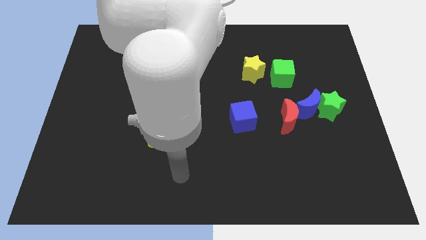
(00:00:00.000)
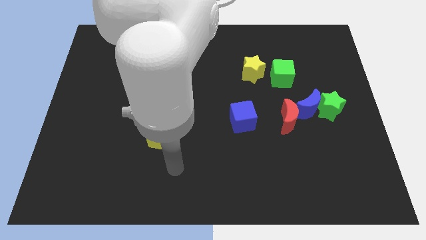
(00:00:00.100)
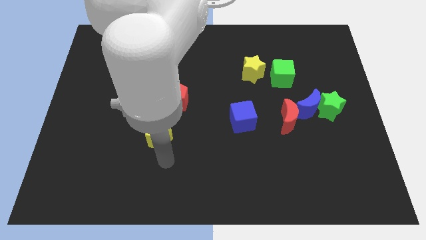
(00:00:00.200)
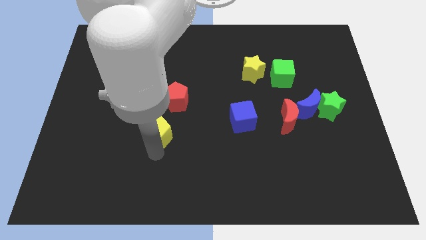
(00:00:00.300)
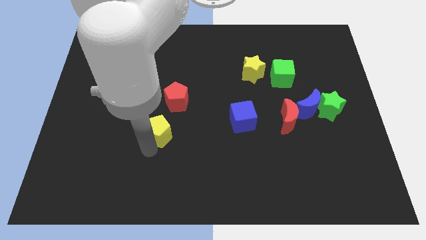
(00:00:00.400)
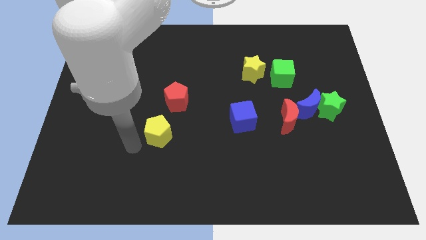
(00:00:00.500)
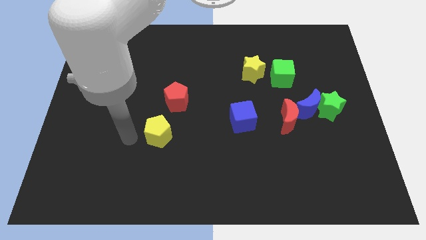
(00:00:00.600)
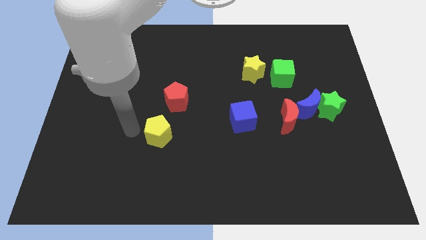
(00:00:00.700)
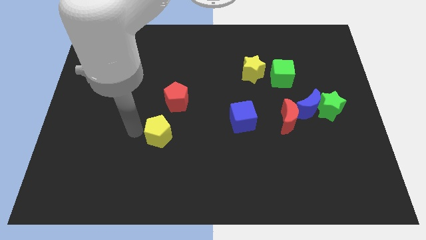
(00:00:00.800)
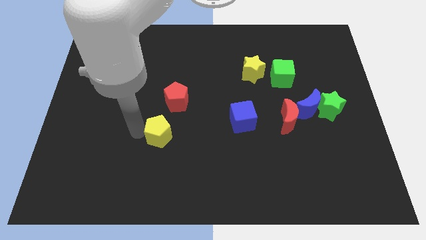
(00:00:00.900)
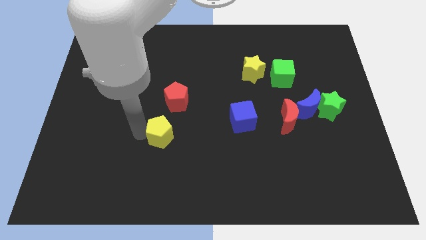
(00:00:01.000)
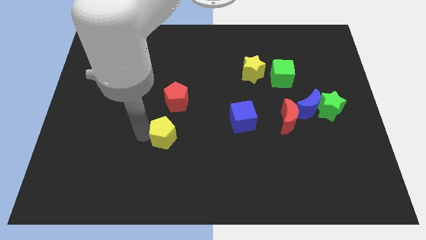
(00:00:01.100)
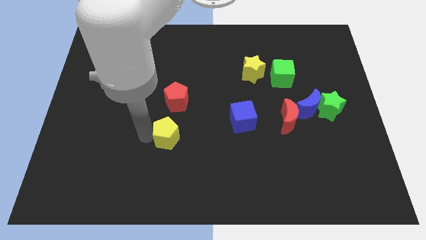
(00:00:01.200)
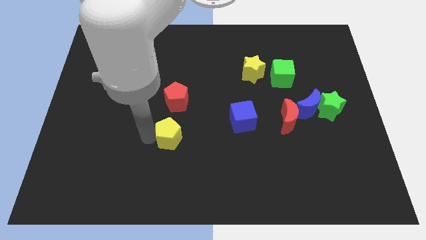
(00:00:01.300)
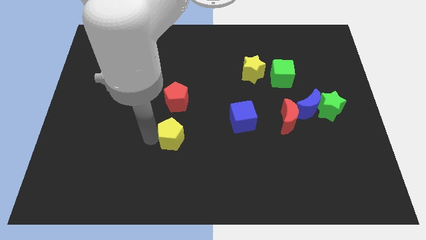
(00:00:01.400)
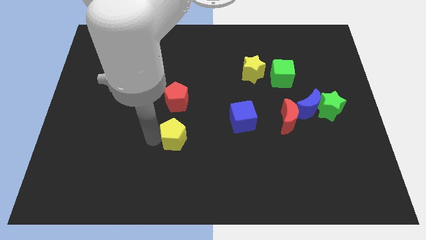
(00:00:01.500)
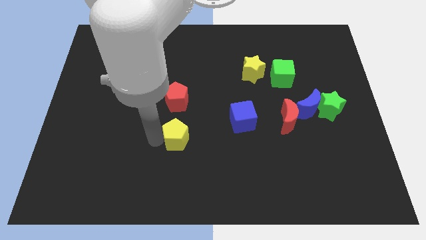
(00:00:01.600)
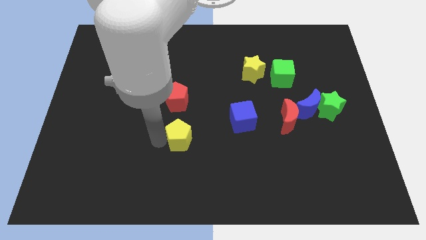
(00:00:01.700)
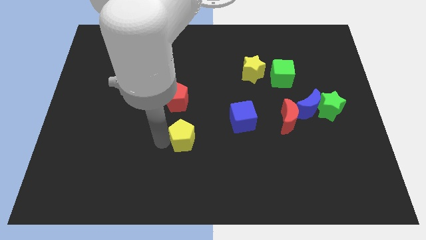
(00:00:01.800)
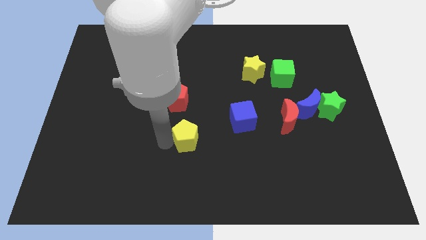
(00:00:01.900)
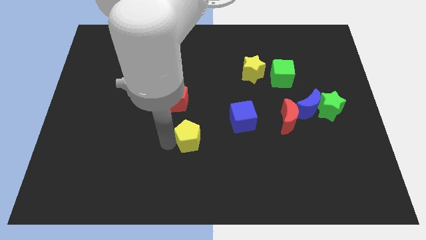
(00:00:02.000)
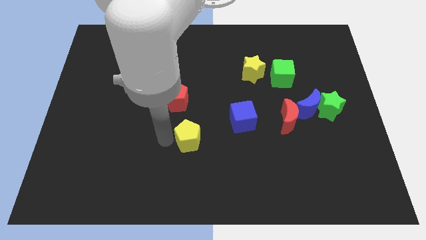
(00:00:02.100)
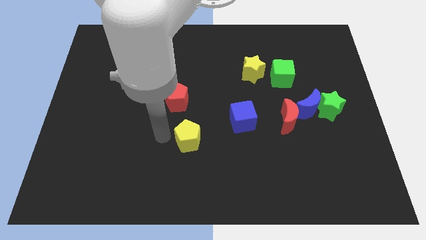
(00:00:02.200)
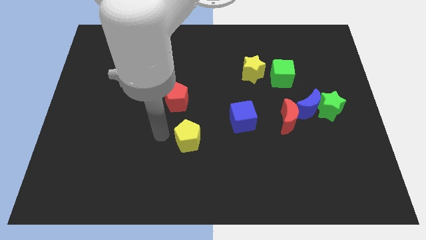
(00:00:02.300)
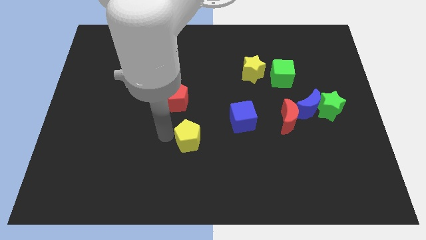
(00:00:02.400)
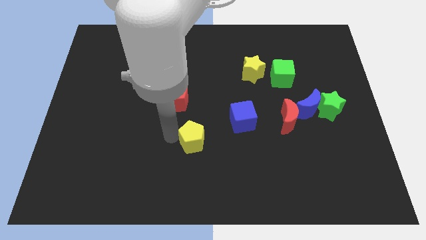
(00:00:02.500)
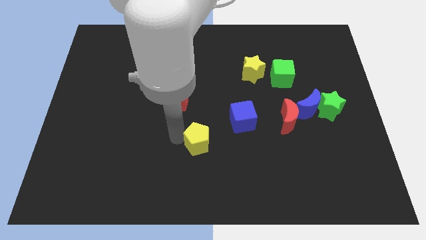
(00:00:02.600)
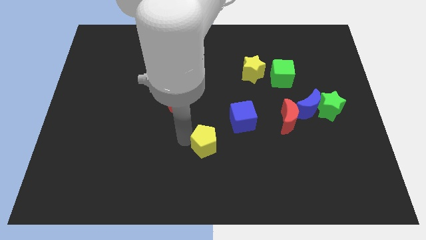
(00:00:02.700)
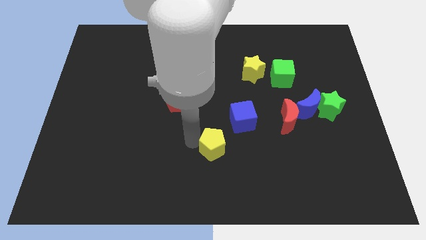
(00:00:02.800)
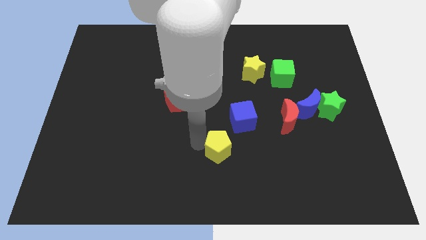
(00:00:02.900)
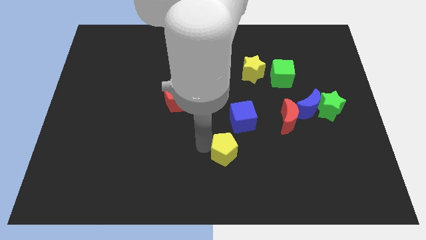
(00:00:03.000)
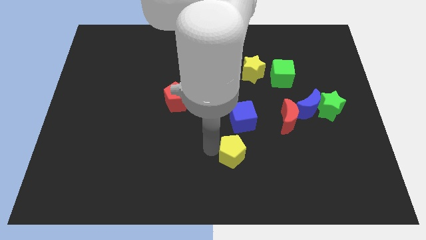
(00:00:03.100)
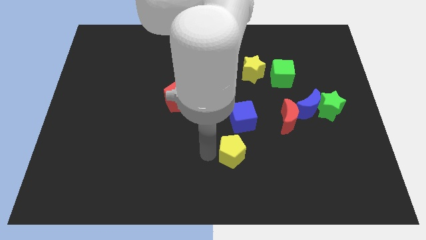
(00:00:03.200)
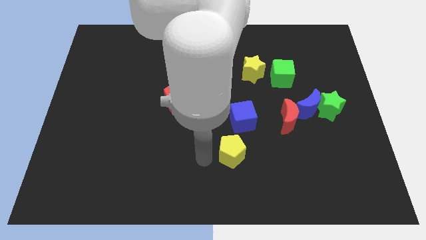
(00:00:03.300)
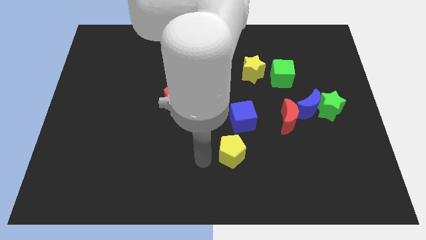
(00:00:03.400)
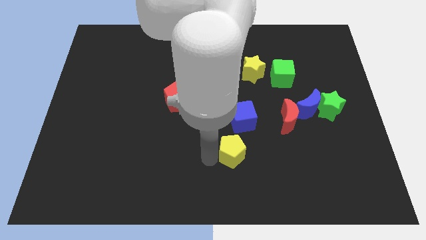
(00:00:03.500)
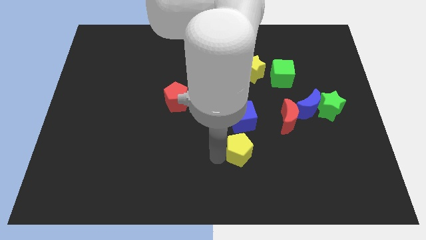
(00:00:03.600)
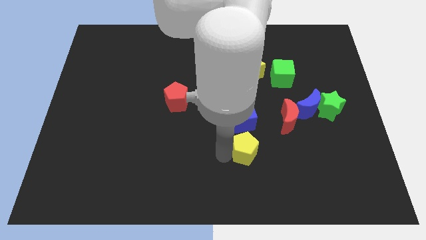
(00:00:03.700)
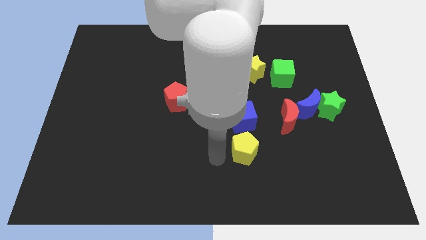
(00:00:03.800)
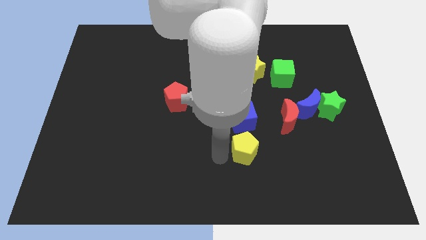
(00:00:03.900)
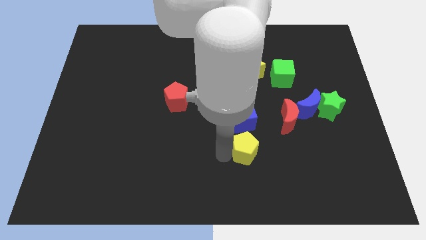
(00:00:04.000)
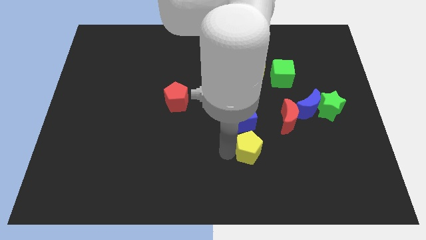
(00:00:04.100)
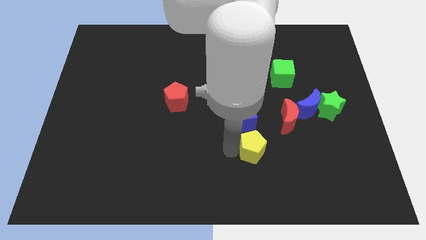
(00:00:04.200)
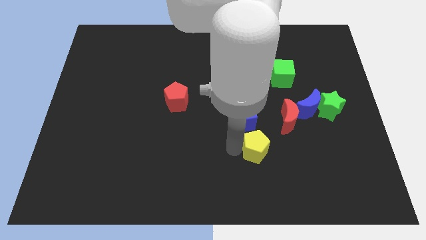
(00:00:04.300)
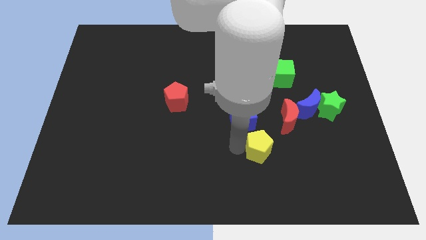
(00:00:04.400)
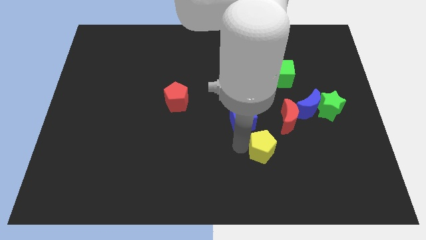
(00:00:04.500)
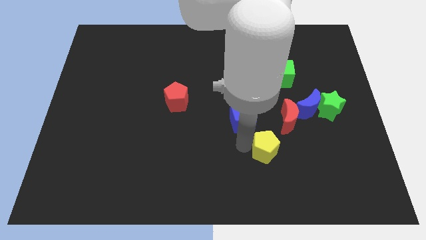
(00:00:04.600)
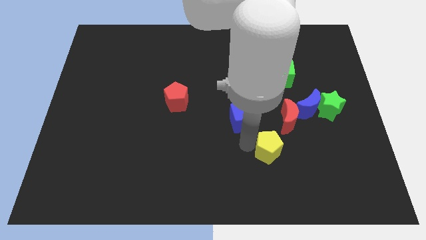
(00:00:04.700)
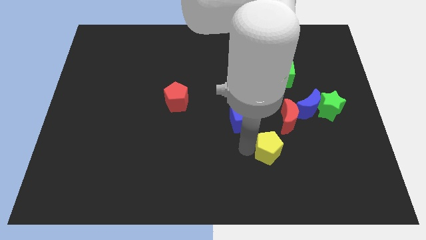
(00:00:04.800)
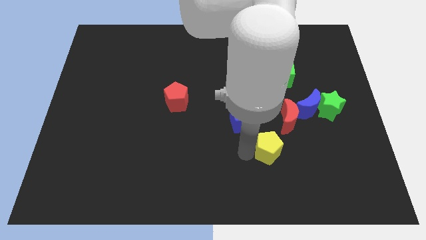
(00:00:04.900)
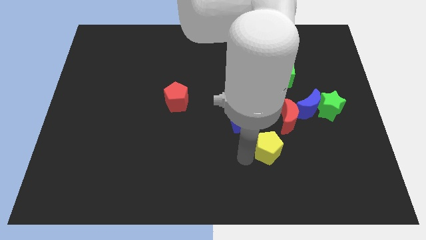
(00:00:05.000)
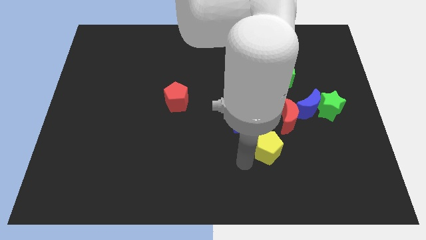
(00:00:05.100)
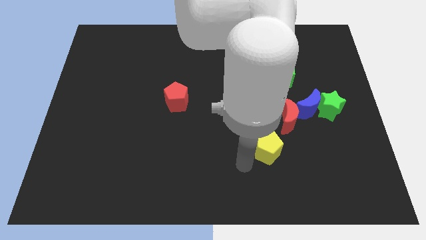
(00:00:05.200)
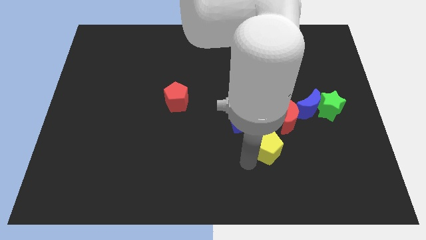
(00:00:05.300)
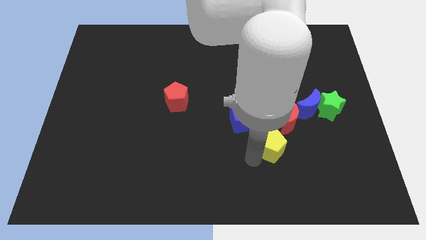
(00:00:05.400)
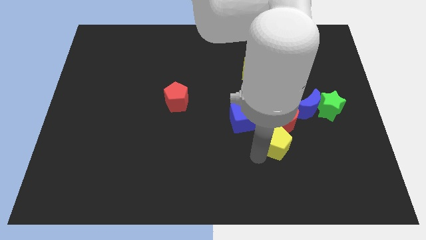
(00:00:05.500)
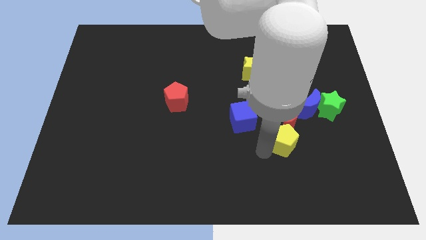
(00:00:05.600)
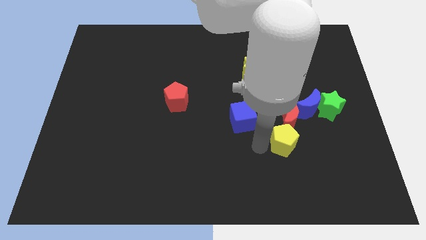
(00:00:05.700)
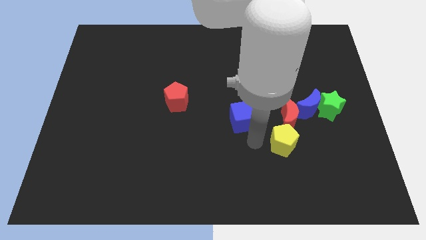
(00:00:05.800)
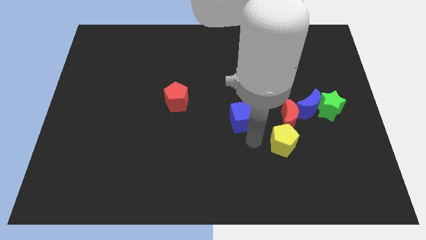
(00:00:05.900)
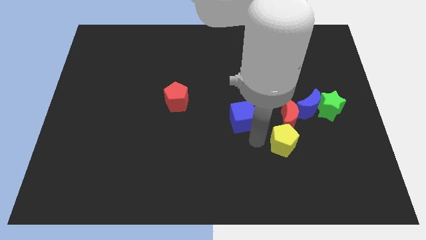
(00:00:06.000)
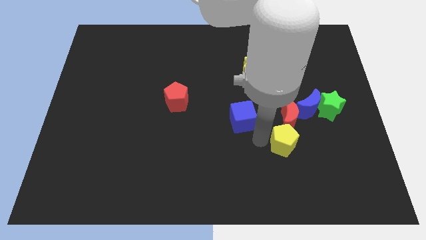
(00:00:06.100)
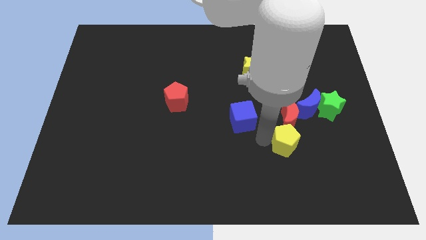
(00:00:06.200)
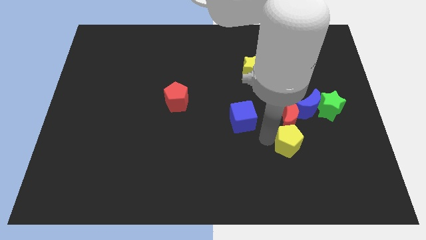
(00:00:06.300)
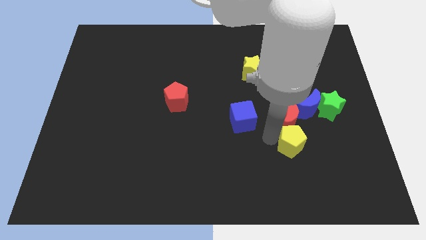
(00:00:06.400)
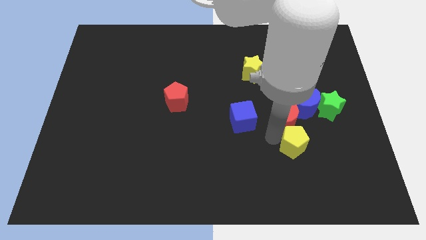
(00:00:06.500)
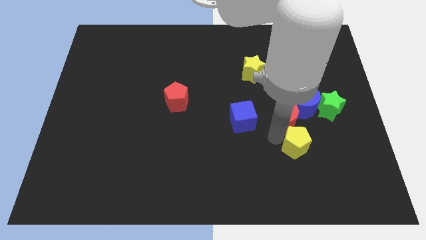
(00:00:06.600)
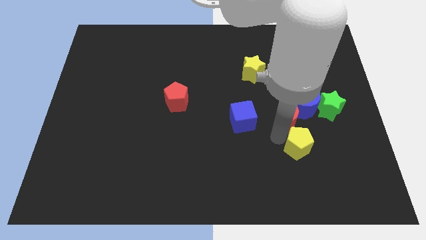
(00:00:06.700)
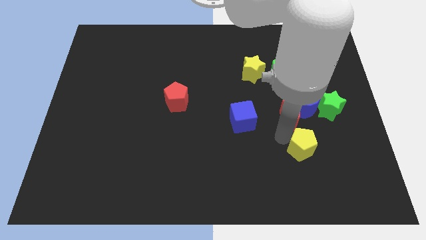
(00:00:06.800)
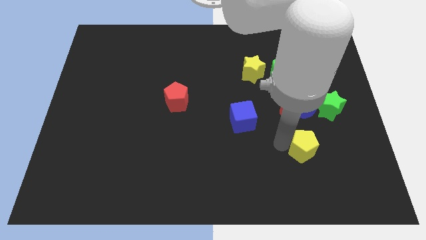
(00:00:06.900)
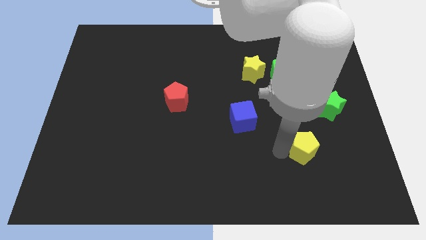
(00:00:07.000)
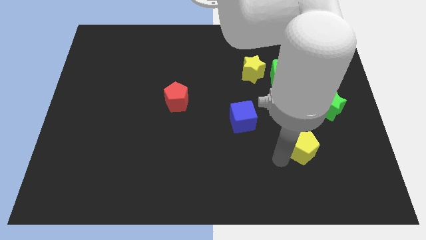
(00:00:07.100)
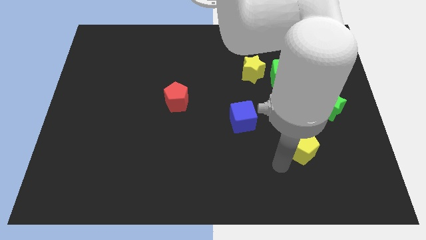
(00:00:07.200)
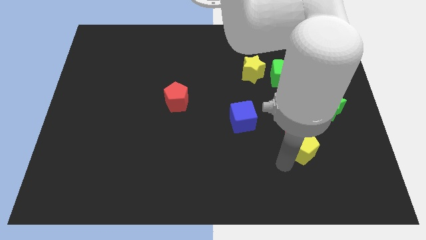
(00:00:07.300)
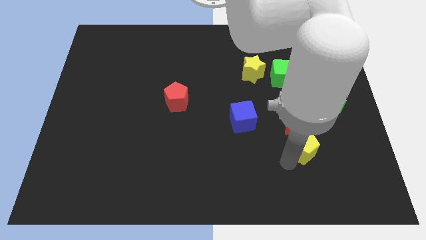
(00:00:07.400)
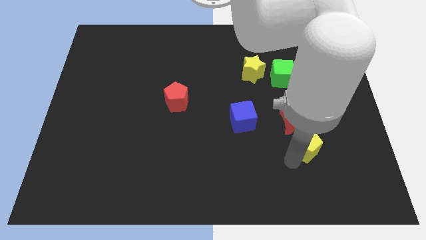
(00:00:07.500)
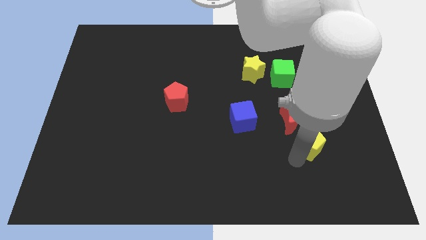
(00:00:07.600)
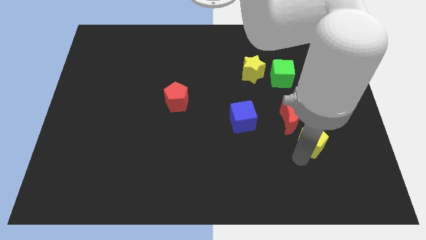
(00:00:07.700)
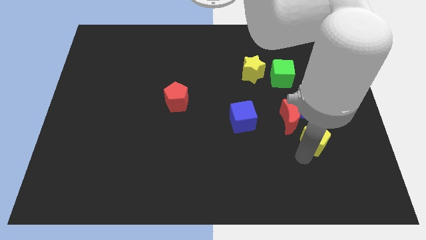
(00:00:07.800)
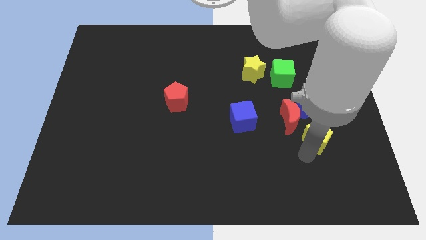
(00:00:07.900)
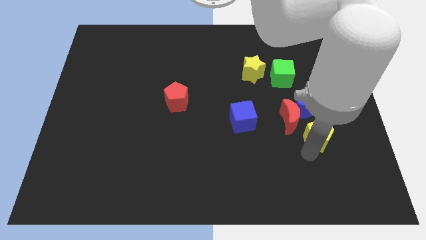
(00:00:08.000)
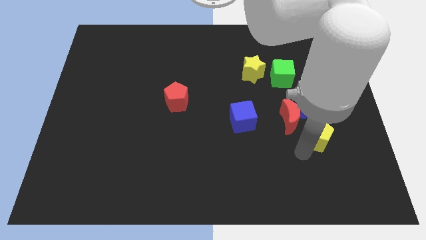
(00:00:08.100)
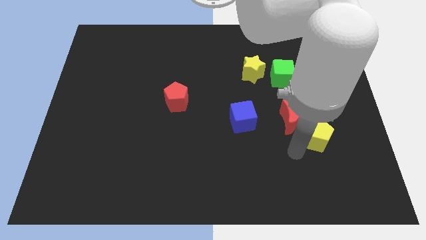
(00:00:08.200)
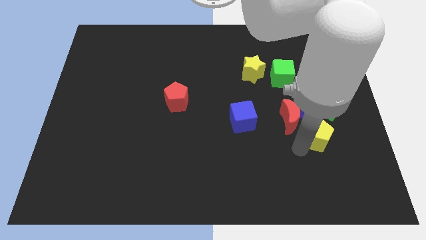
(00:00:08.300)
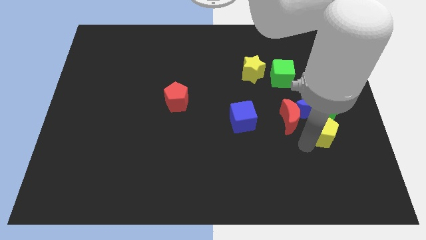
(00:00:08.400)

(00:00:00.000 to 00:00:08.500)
move the yellow pentagon diagonally down and to the right of the blue moon
